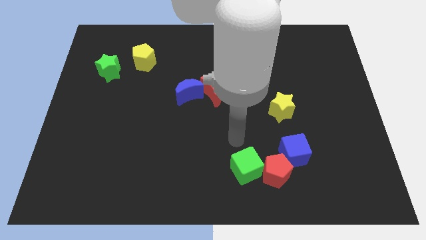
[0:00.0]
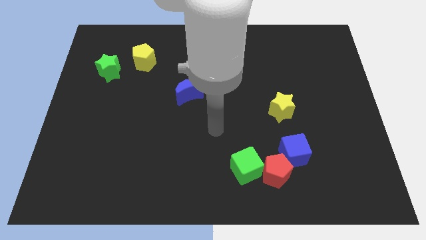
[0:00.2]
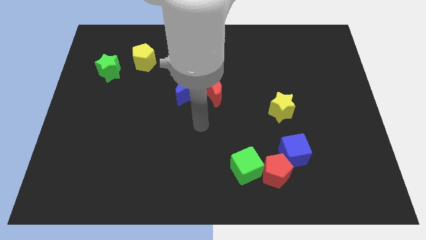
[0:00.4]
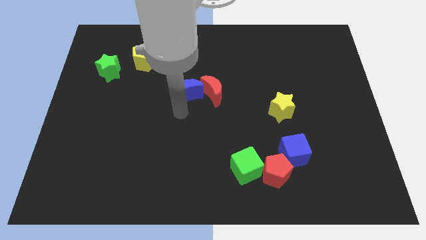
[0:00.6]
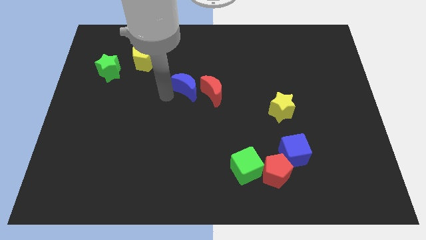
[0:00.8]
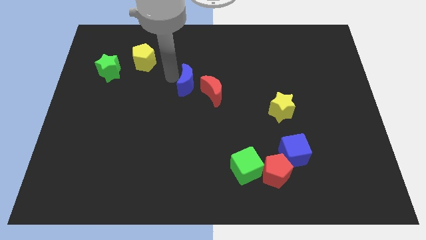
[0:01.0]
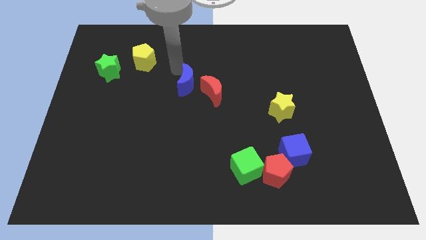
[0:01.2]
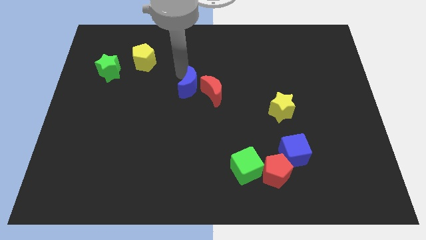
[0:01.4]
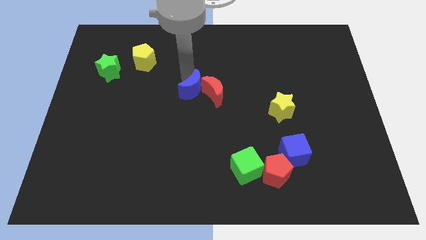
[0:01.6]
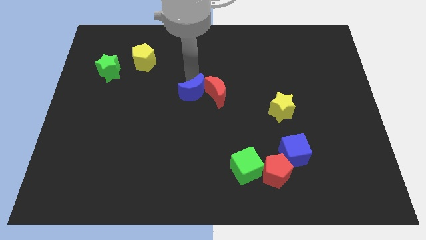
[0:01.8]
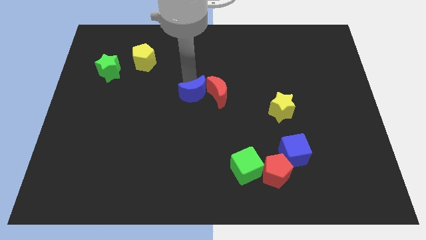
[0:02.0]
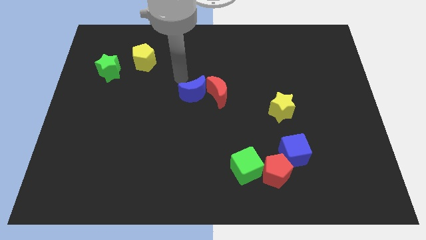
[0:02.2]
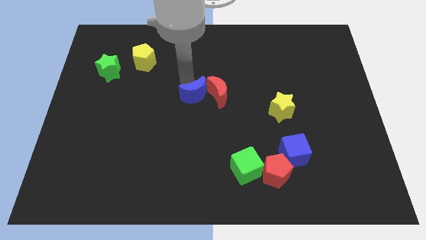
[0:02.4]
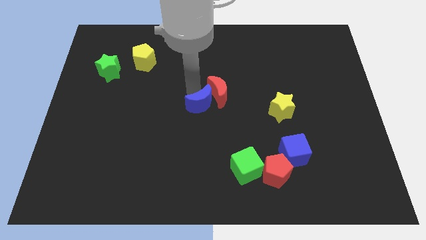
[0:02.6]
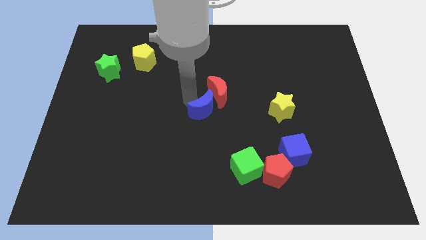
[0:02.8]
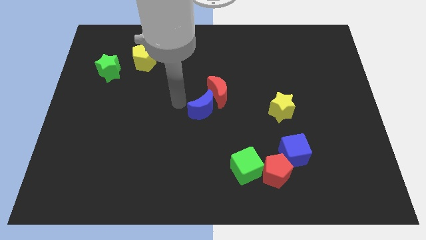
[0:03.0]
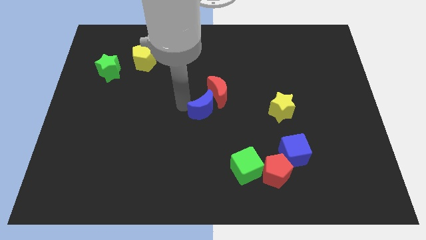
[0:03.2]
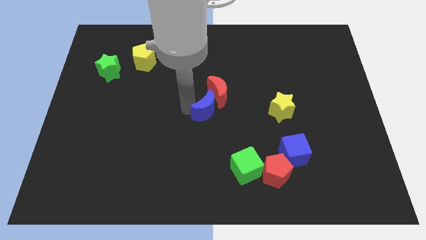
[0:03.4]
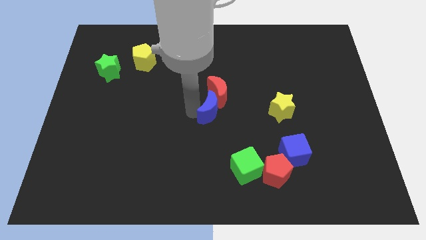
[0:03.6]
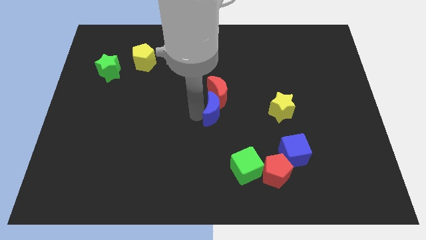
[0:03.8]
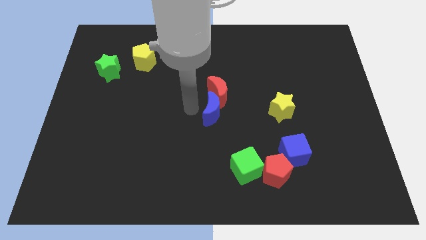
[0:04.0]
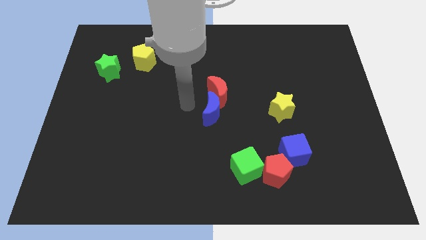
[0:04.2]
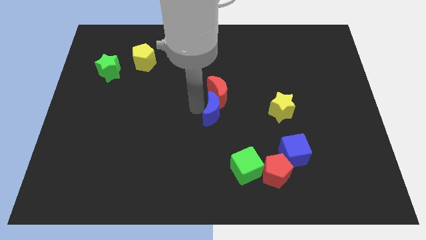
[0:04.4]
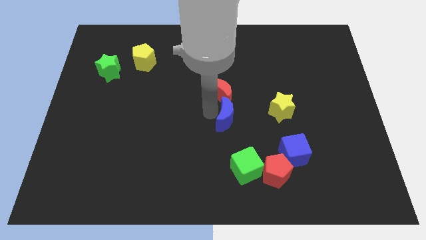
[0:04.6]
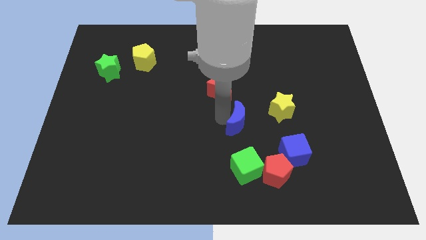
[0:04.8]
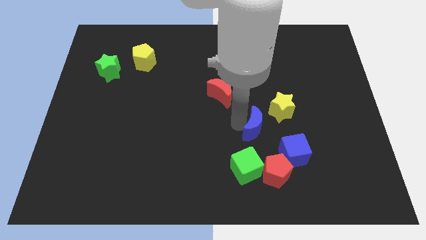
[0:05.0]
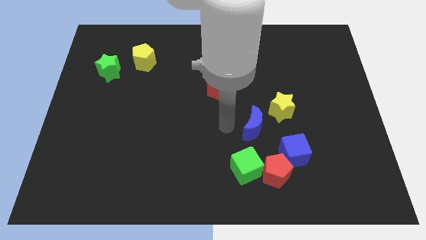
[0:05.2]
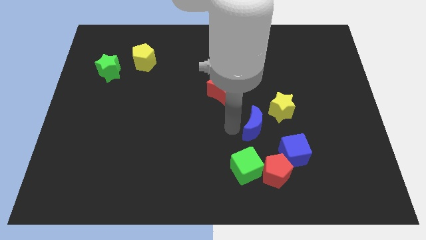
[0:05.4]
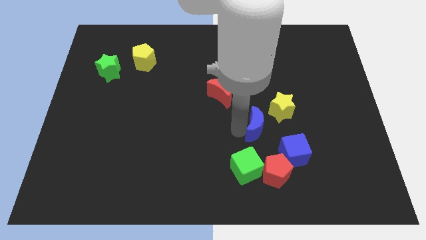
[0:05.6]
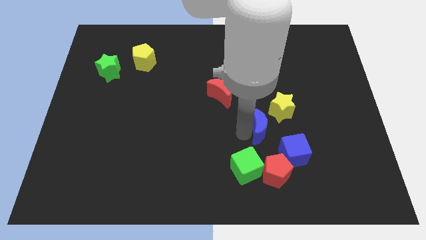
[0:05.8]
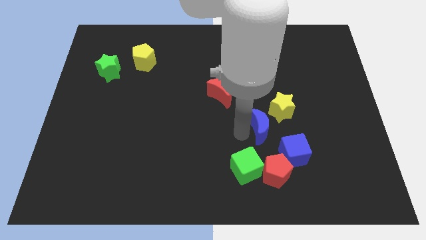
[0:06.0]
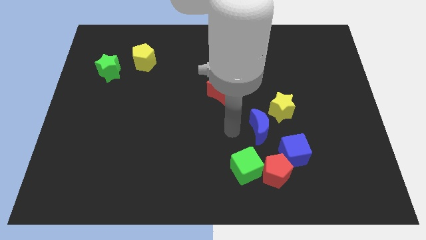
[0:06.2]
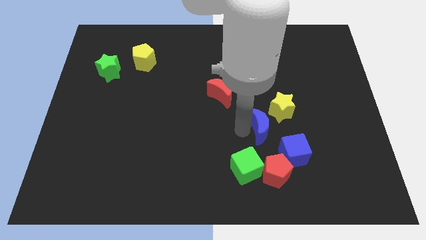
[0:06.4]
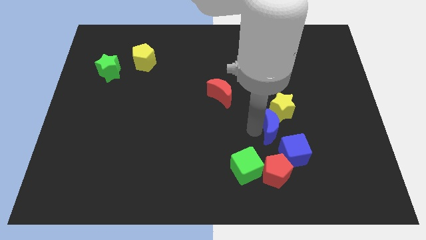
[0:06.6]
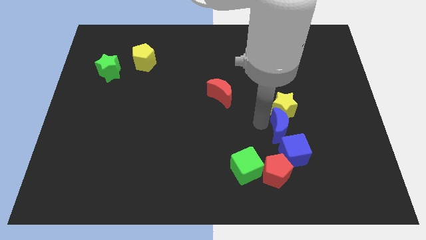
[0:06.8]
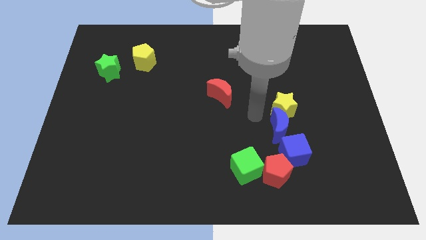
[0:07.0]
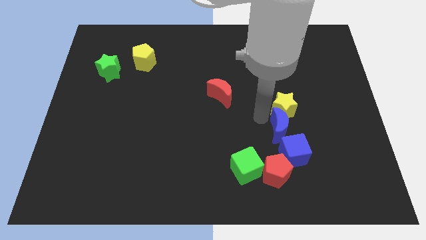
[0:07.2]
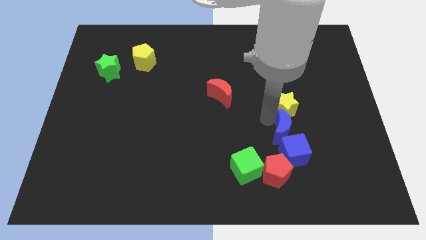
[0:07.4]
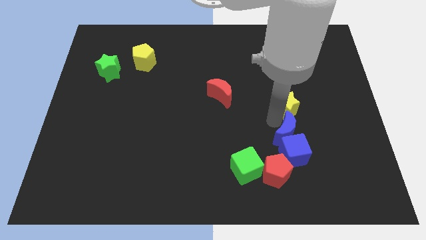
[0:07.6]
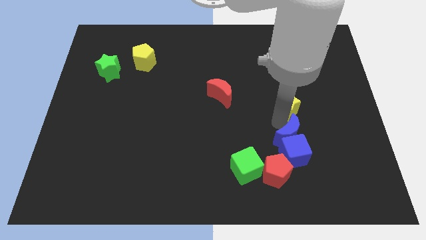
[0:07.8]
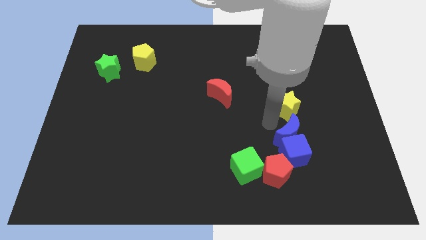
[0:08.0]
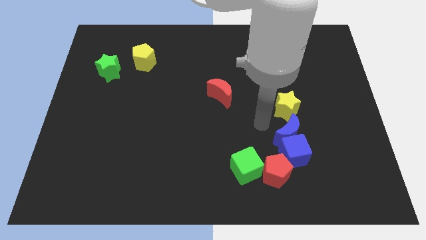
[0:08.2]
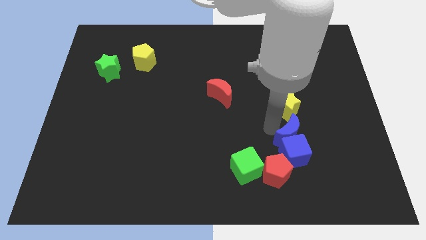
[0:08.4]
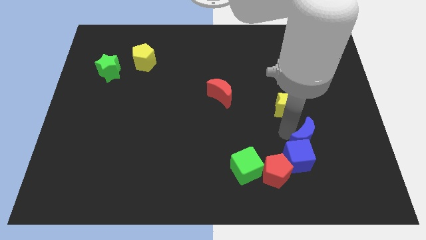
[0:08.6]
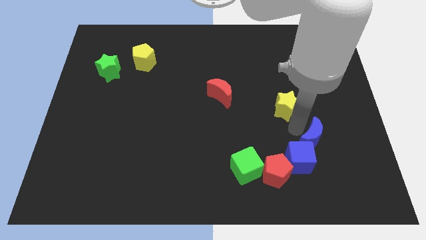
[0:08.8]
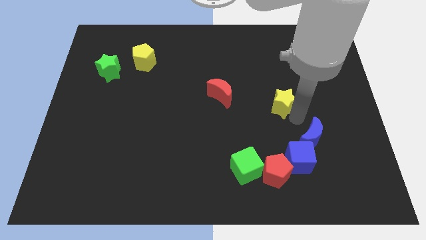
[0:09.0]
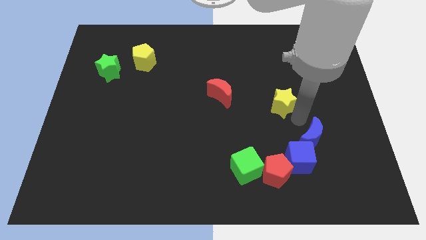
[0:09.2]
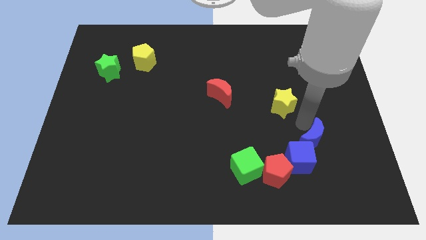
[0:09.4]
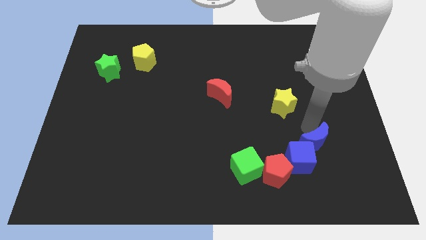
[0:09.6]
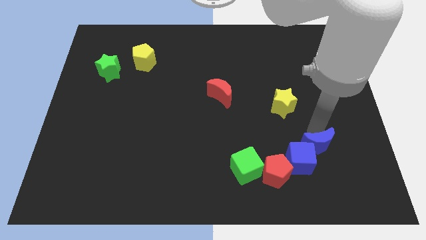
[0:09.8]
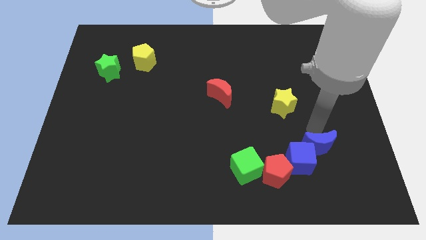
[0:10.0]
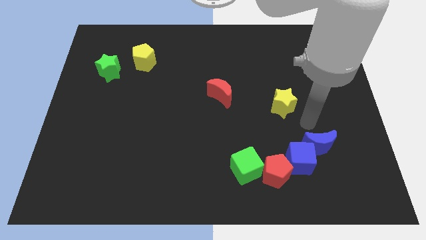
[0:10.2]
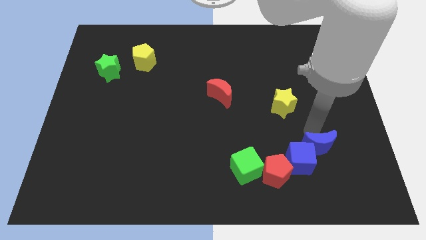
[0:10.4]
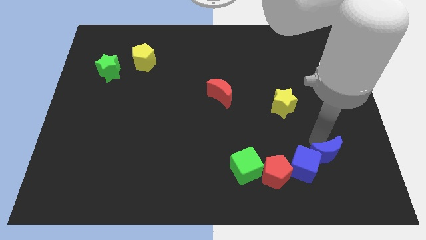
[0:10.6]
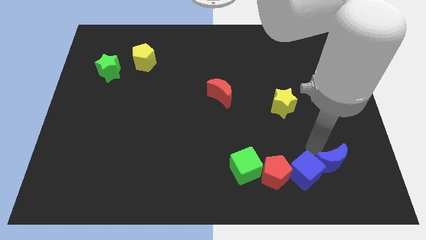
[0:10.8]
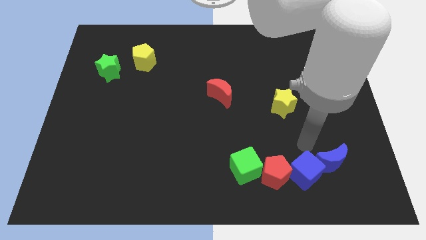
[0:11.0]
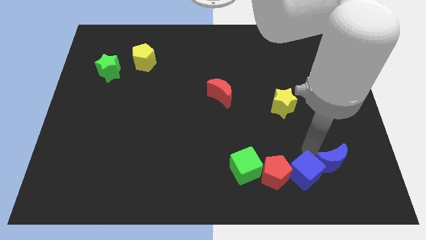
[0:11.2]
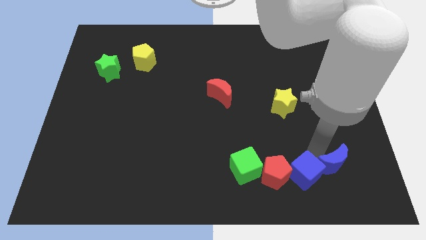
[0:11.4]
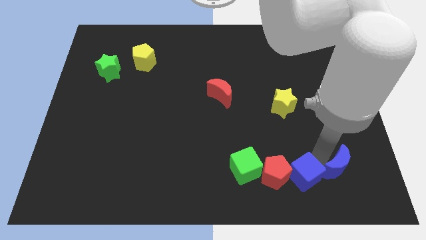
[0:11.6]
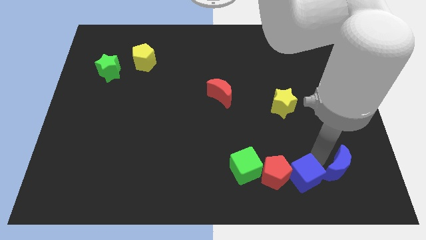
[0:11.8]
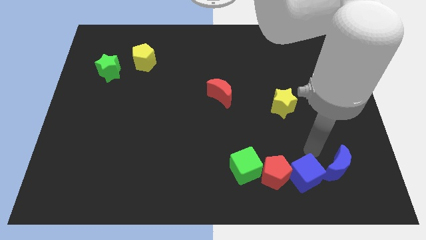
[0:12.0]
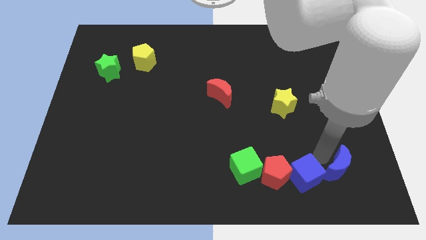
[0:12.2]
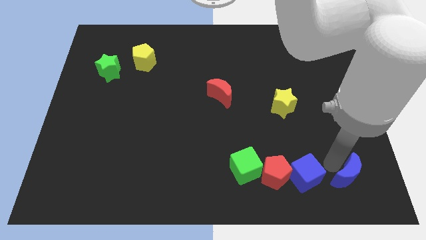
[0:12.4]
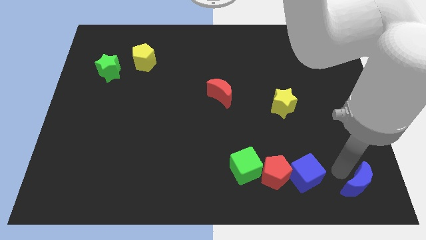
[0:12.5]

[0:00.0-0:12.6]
push the blue moon to the bottom right
